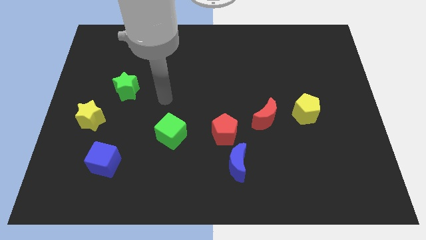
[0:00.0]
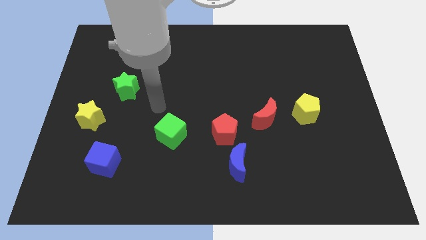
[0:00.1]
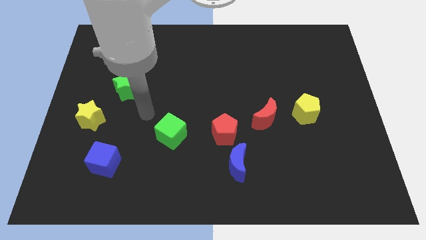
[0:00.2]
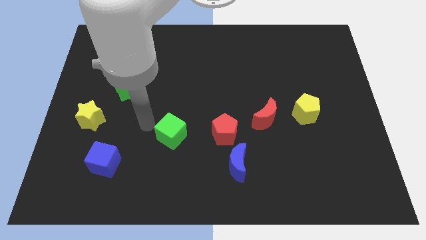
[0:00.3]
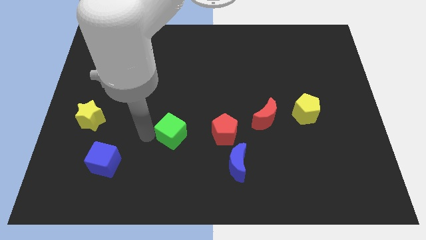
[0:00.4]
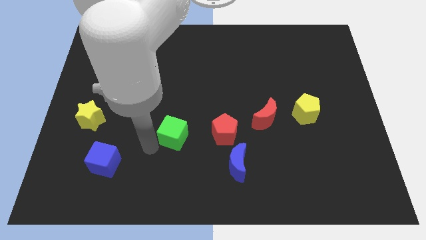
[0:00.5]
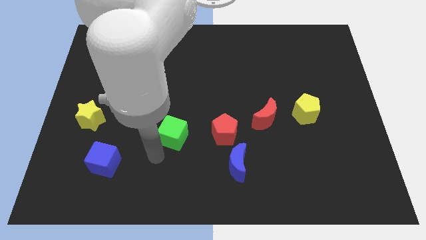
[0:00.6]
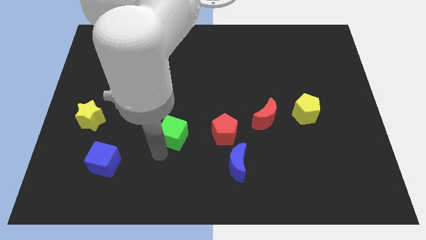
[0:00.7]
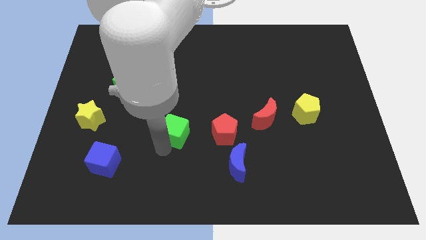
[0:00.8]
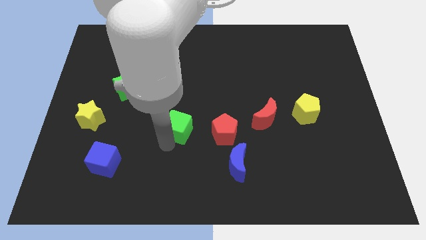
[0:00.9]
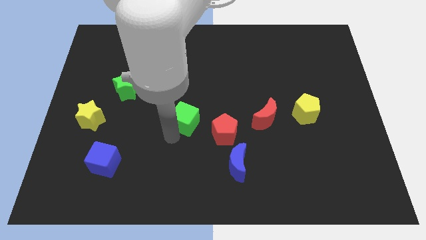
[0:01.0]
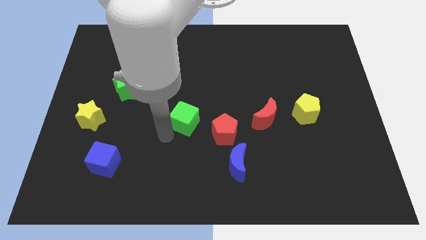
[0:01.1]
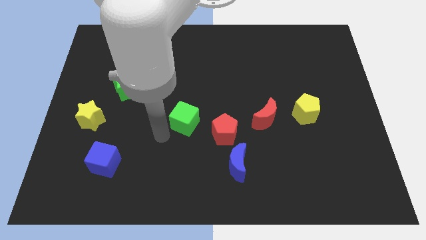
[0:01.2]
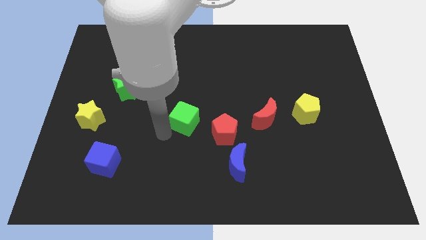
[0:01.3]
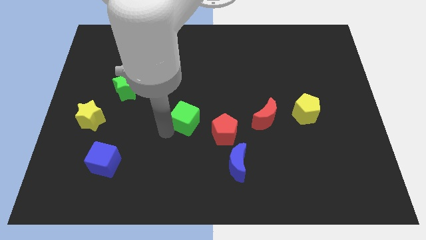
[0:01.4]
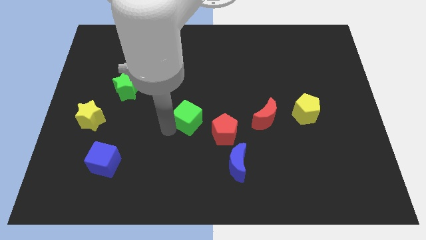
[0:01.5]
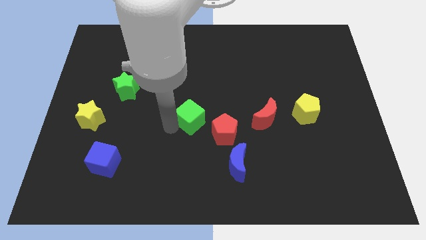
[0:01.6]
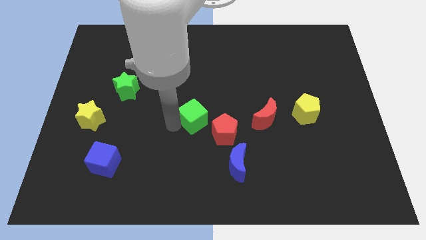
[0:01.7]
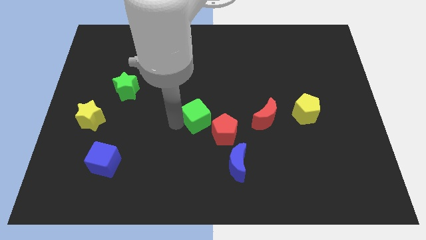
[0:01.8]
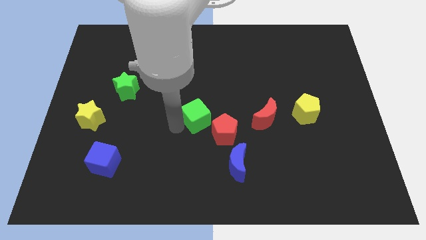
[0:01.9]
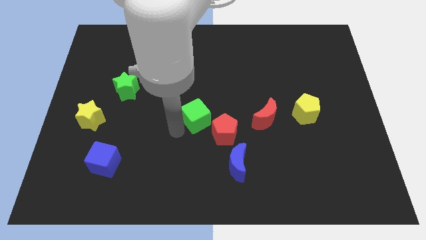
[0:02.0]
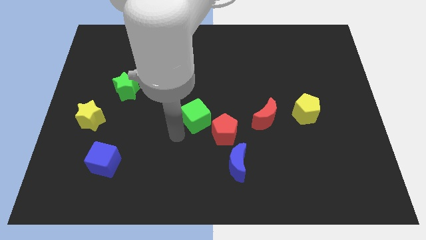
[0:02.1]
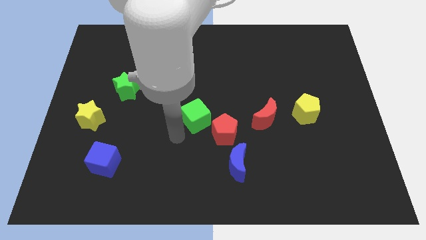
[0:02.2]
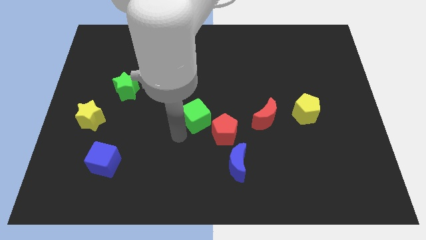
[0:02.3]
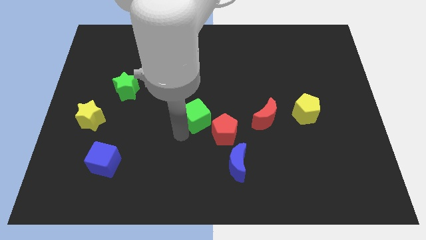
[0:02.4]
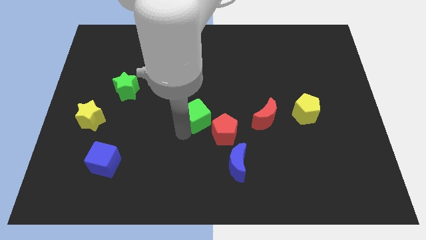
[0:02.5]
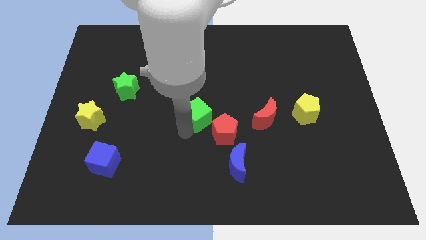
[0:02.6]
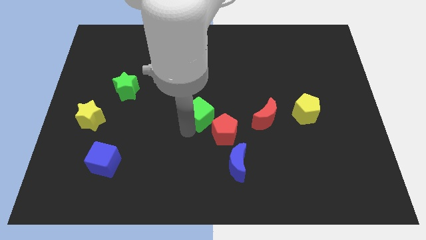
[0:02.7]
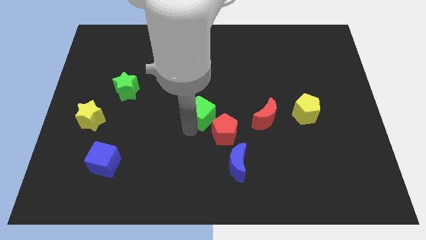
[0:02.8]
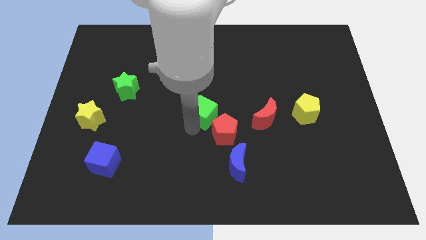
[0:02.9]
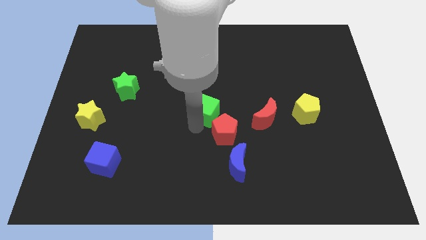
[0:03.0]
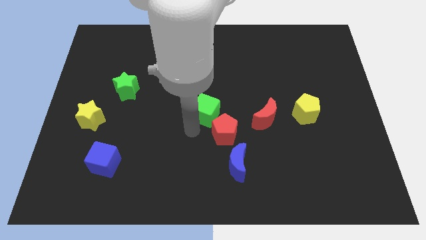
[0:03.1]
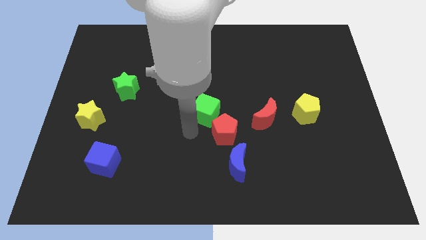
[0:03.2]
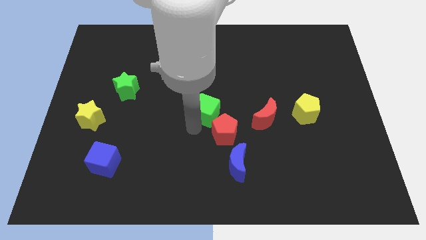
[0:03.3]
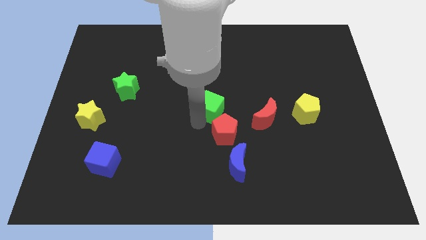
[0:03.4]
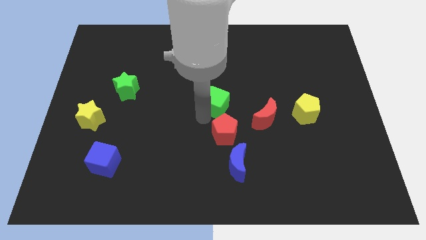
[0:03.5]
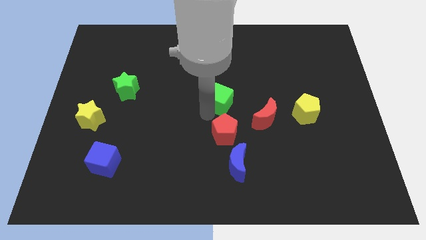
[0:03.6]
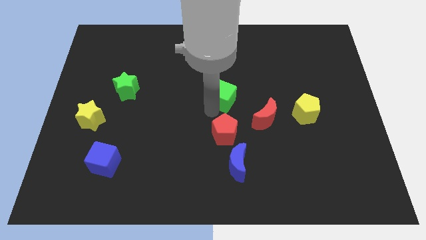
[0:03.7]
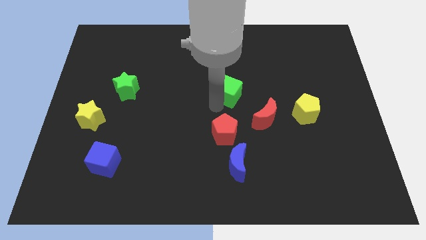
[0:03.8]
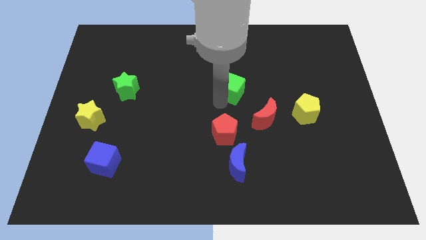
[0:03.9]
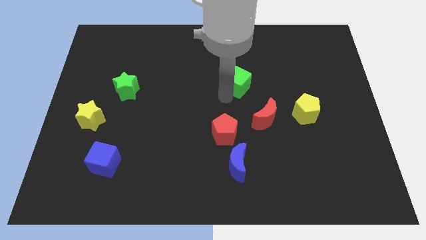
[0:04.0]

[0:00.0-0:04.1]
push the green cube up and right

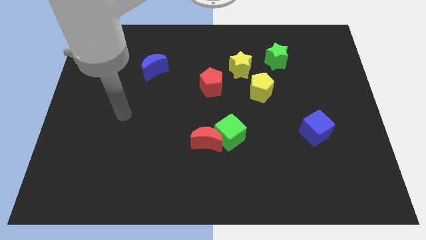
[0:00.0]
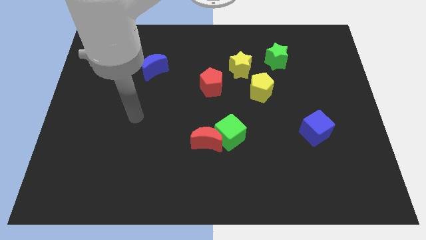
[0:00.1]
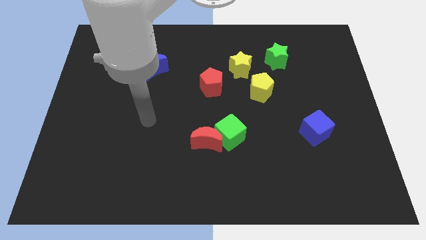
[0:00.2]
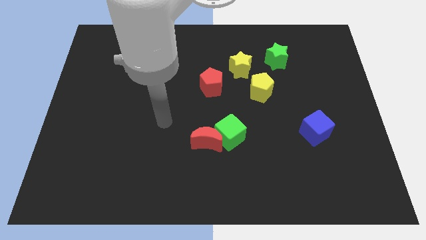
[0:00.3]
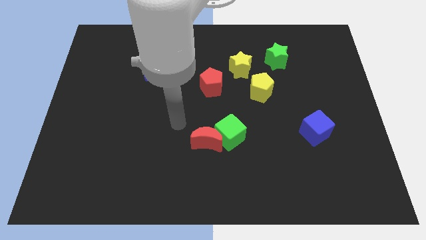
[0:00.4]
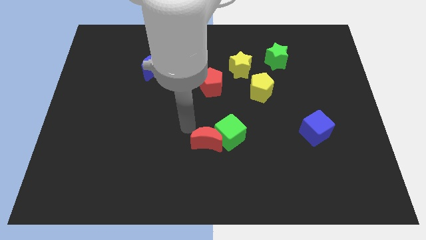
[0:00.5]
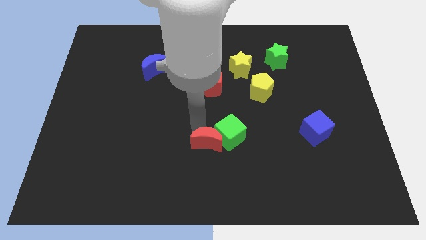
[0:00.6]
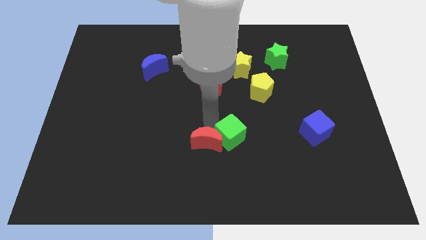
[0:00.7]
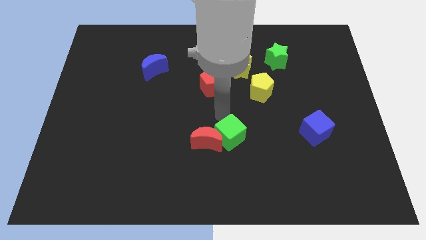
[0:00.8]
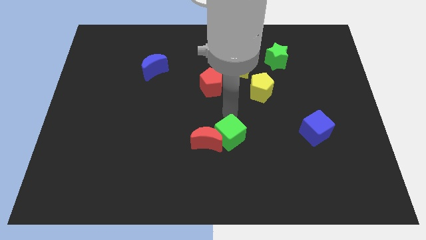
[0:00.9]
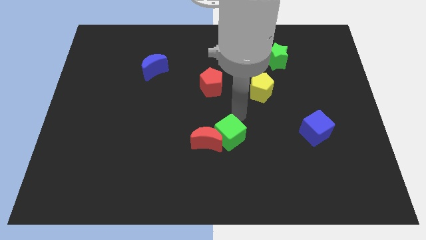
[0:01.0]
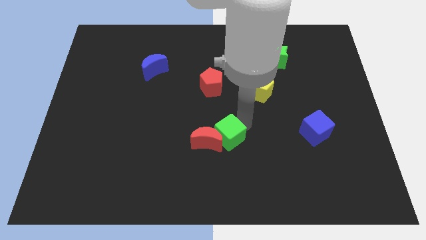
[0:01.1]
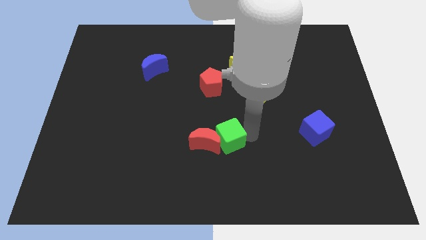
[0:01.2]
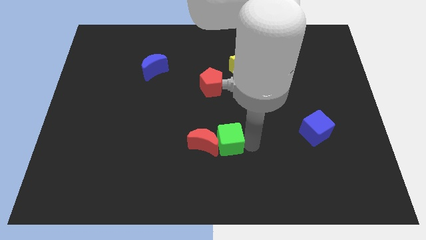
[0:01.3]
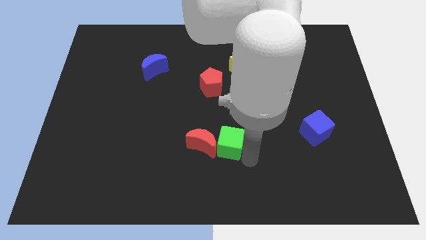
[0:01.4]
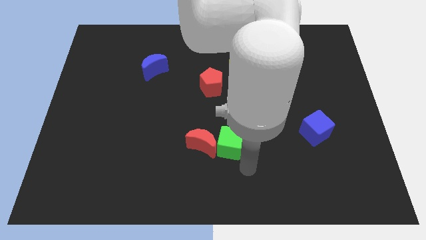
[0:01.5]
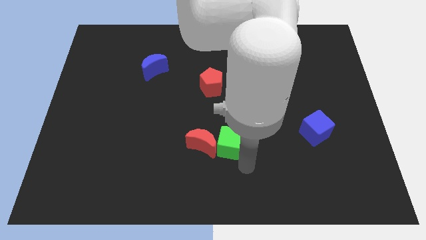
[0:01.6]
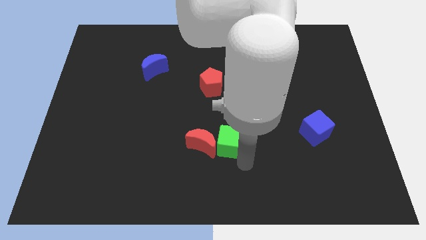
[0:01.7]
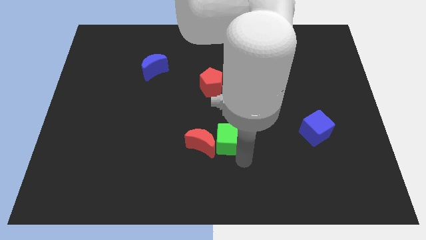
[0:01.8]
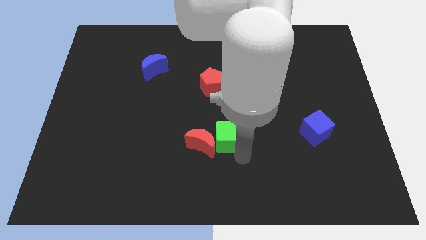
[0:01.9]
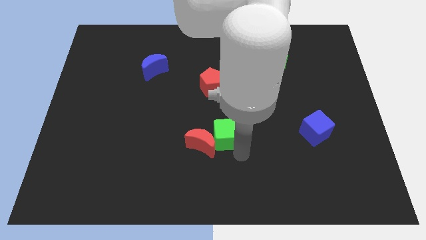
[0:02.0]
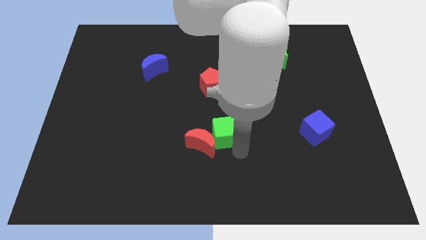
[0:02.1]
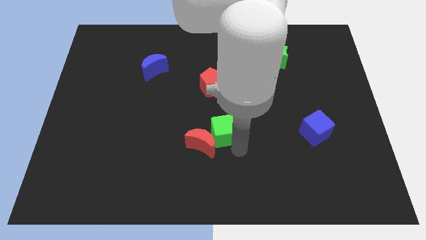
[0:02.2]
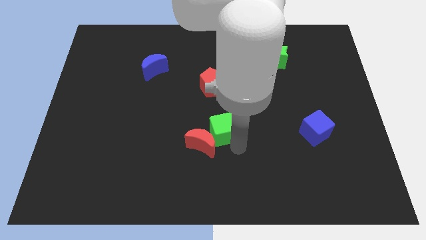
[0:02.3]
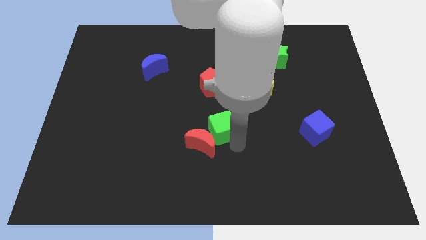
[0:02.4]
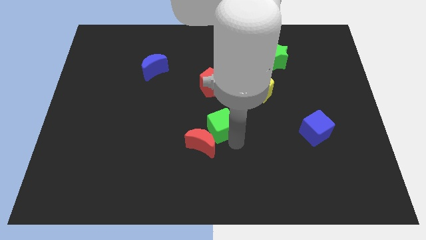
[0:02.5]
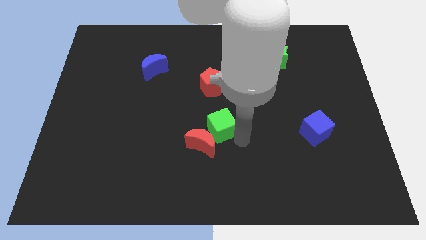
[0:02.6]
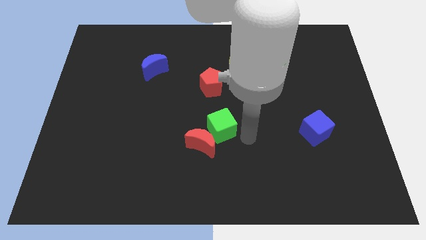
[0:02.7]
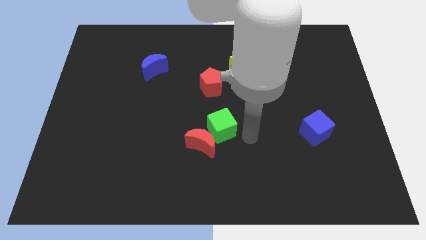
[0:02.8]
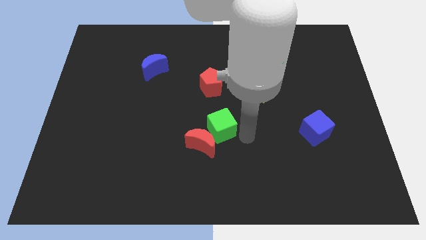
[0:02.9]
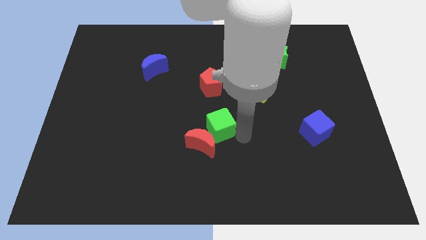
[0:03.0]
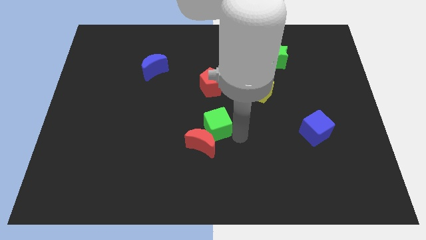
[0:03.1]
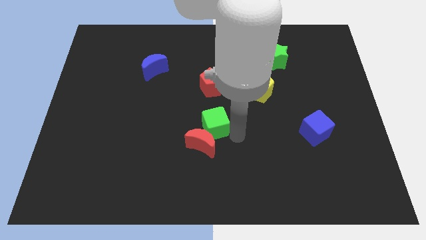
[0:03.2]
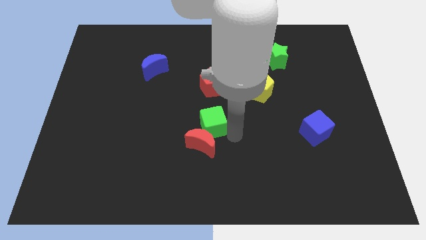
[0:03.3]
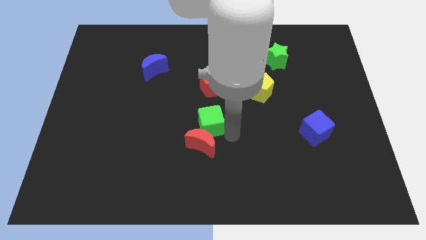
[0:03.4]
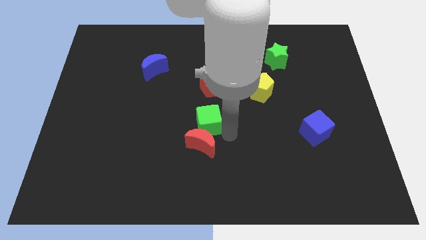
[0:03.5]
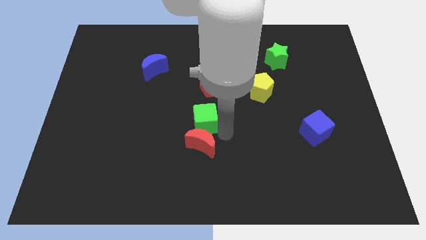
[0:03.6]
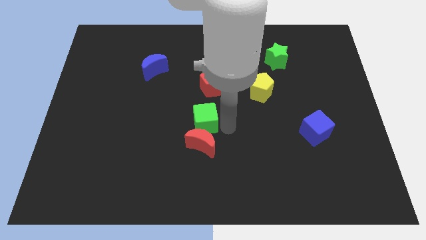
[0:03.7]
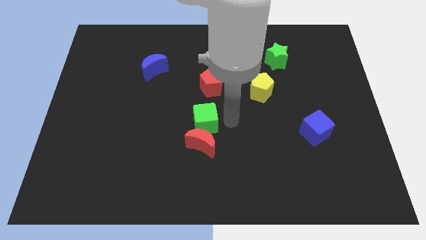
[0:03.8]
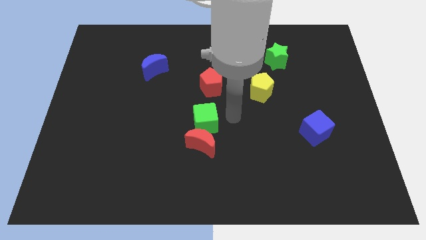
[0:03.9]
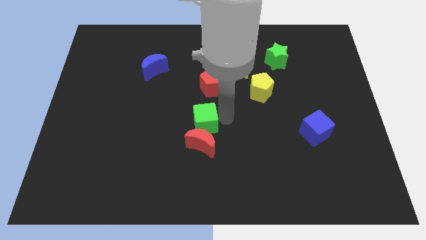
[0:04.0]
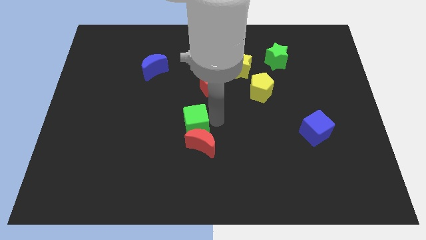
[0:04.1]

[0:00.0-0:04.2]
move the green cube a bit to the left
